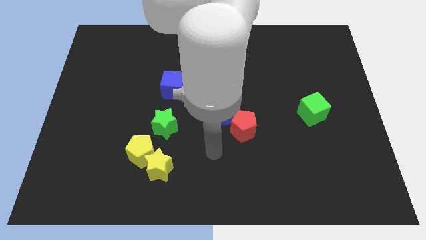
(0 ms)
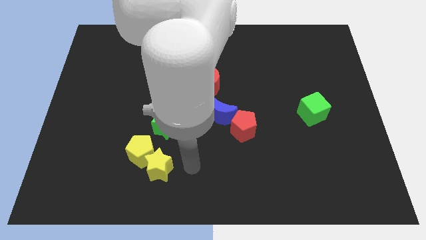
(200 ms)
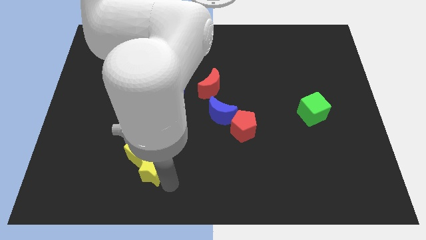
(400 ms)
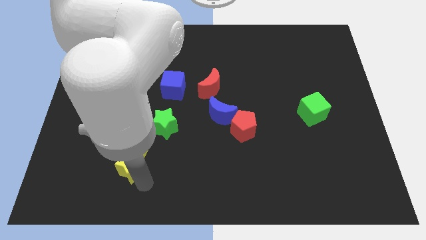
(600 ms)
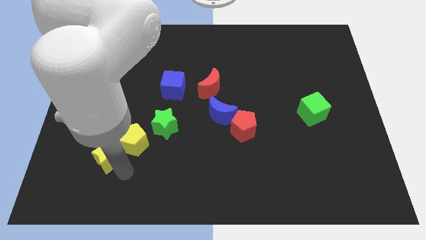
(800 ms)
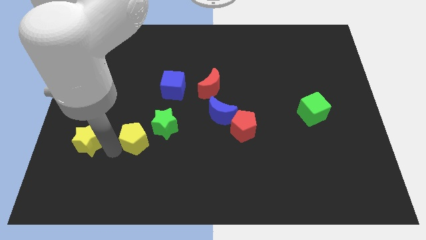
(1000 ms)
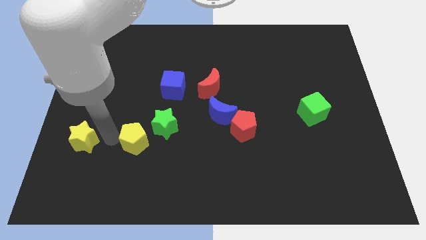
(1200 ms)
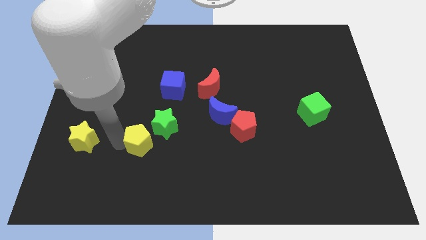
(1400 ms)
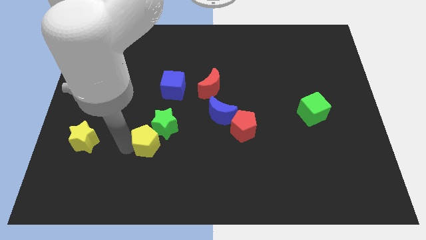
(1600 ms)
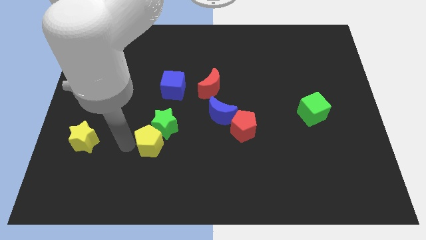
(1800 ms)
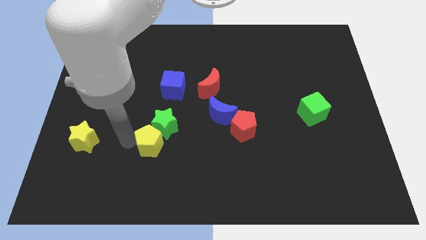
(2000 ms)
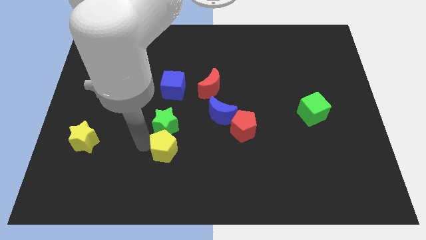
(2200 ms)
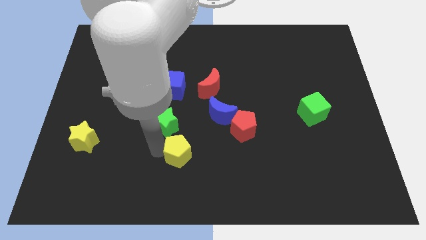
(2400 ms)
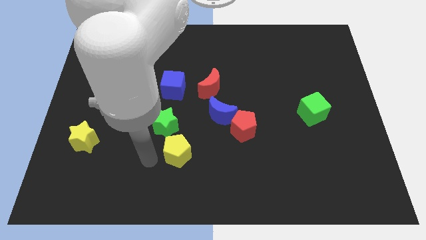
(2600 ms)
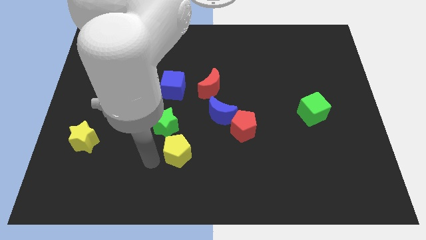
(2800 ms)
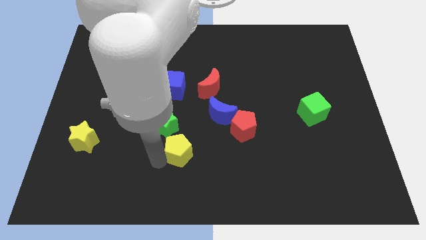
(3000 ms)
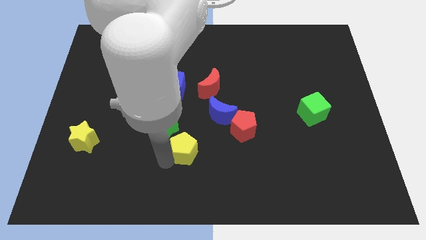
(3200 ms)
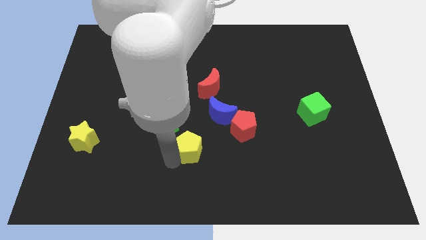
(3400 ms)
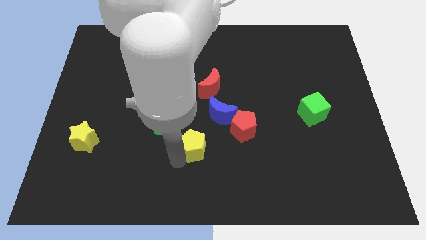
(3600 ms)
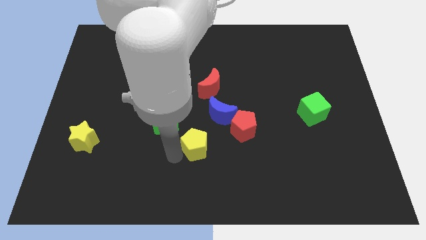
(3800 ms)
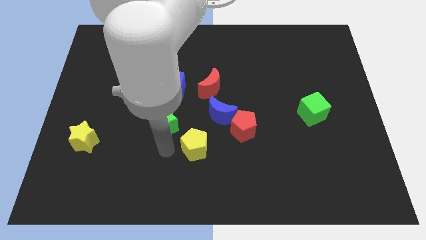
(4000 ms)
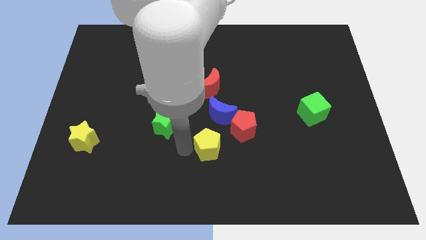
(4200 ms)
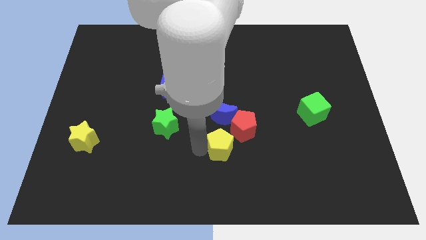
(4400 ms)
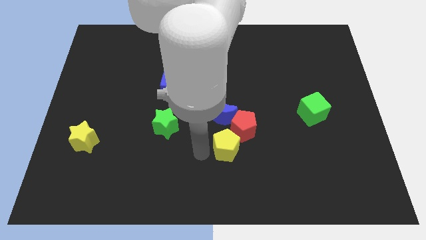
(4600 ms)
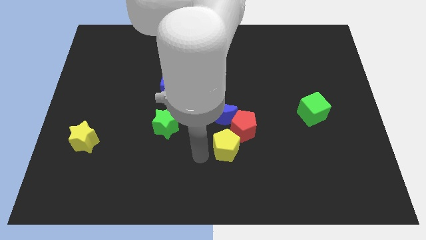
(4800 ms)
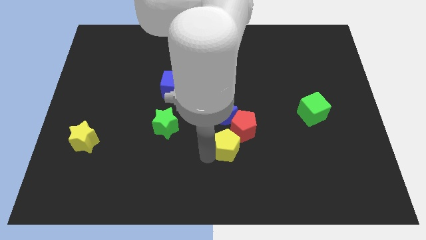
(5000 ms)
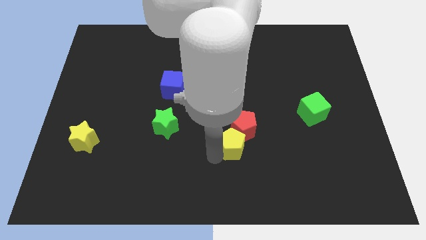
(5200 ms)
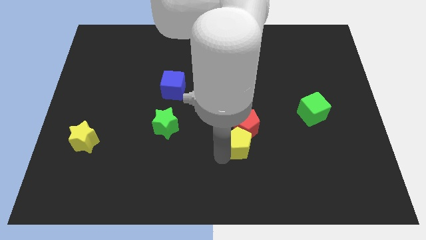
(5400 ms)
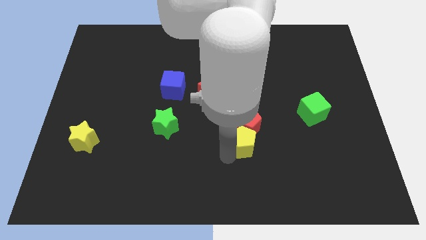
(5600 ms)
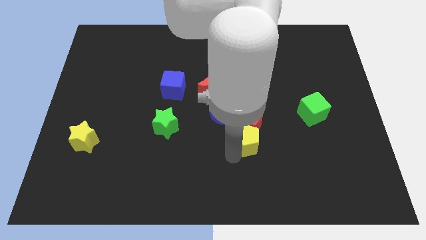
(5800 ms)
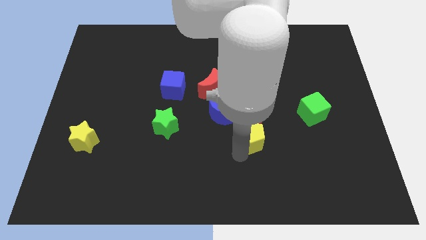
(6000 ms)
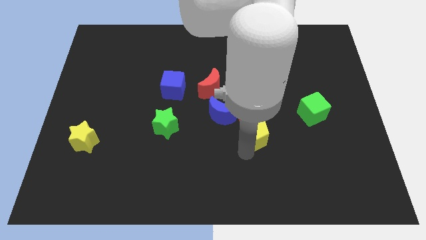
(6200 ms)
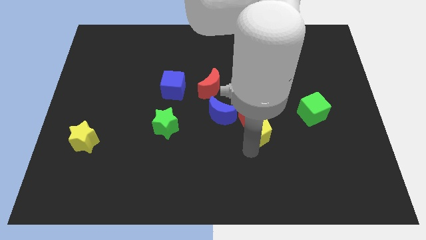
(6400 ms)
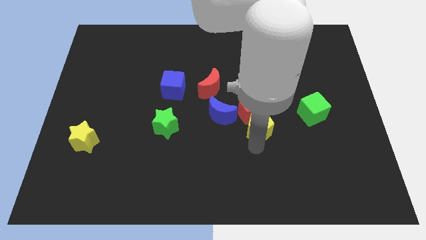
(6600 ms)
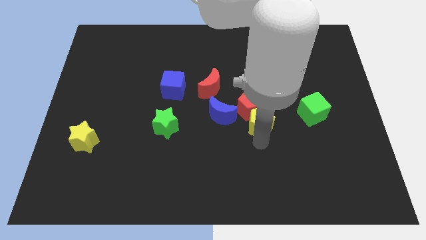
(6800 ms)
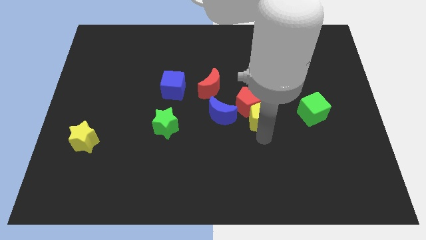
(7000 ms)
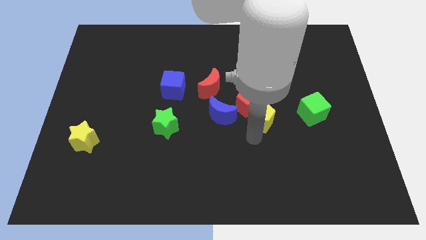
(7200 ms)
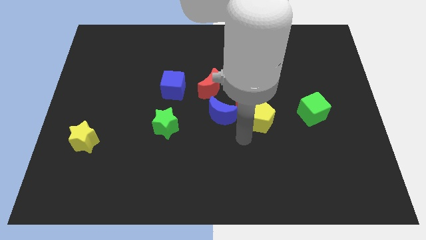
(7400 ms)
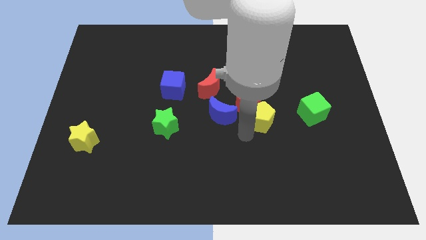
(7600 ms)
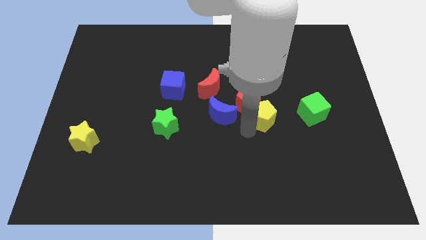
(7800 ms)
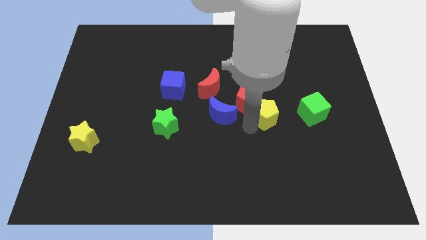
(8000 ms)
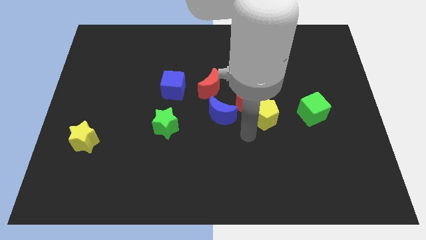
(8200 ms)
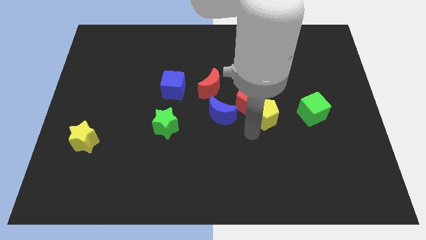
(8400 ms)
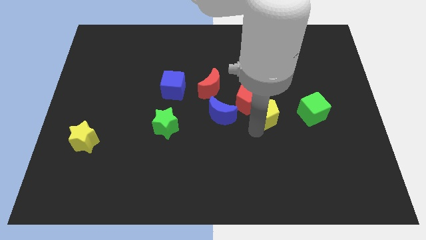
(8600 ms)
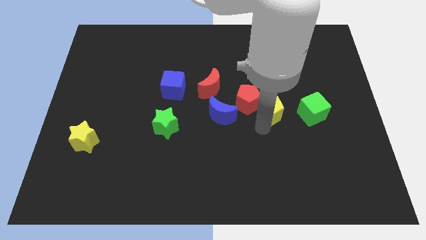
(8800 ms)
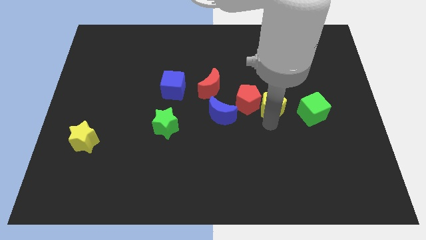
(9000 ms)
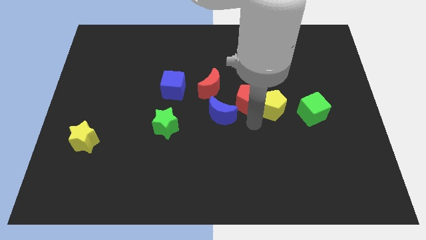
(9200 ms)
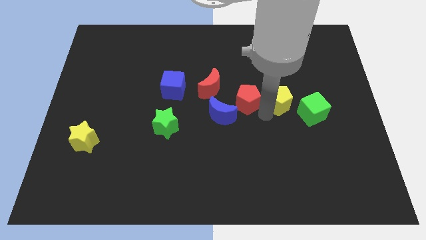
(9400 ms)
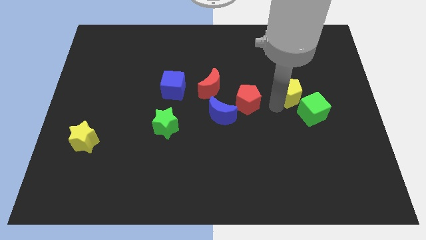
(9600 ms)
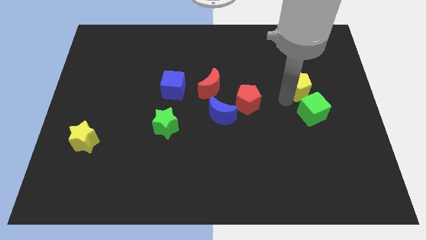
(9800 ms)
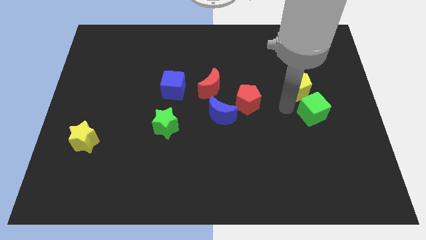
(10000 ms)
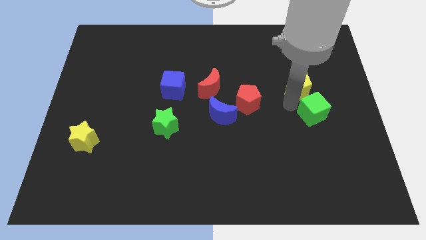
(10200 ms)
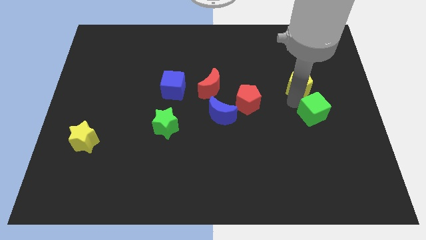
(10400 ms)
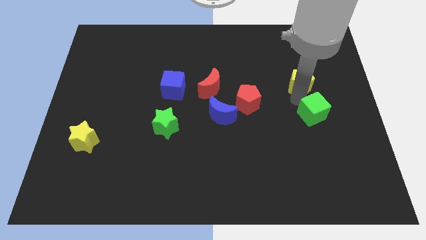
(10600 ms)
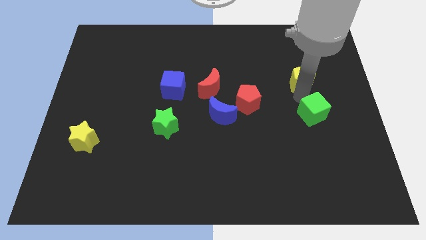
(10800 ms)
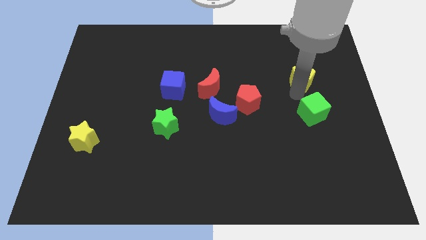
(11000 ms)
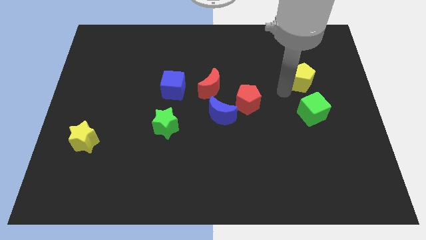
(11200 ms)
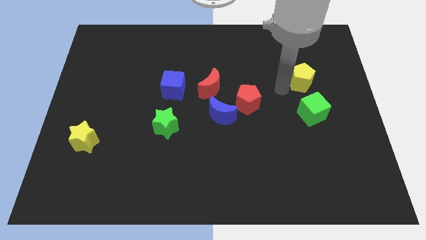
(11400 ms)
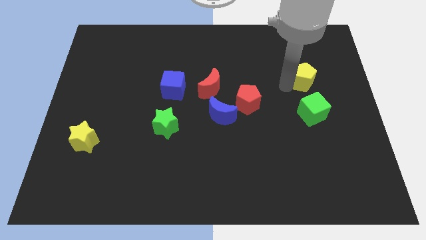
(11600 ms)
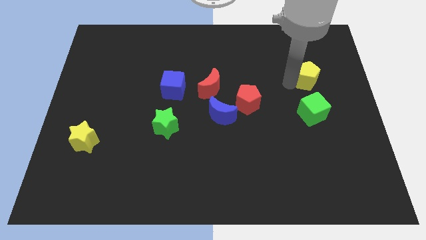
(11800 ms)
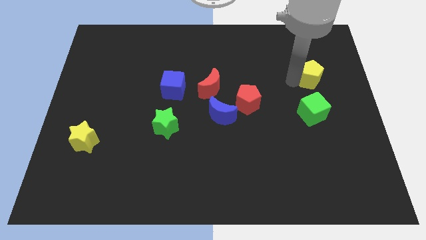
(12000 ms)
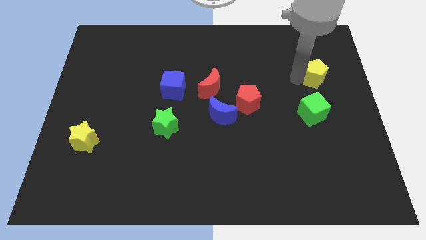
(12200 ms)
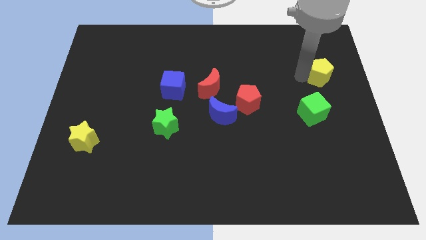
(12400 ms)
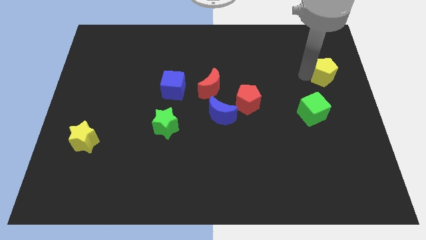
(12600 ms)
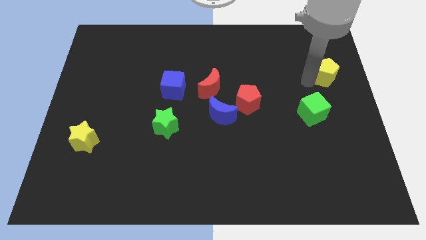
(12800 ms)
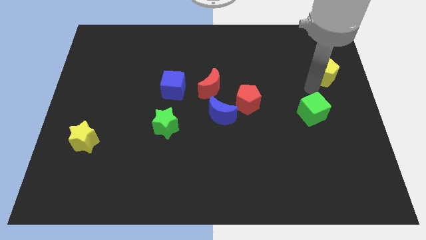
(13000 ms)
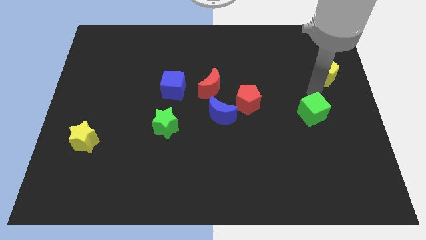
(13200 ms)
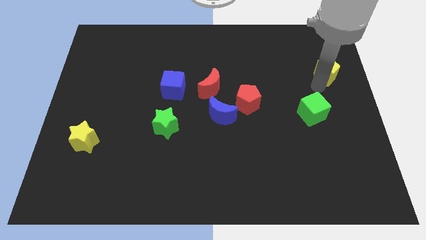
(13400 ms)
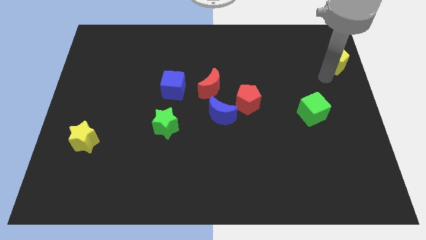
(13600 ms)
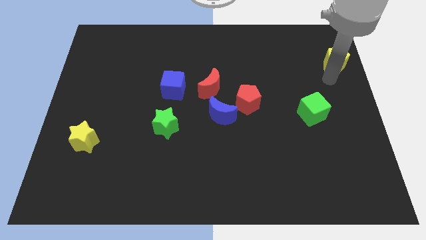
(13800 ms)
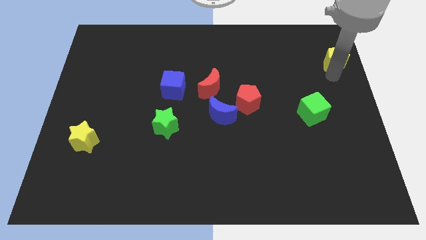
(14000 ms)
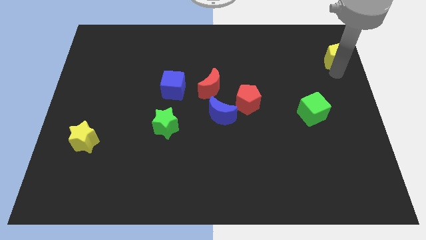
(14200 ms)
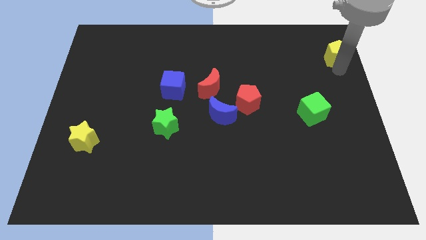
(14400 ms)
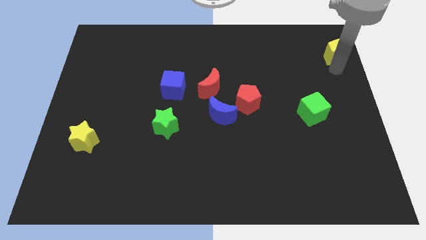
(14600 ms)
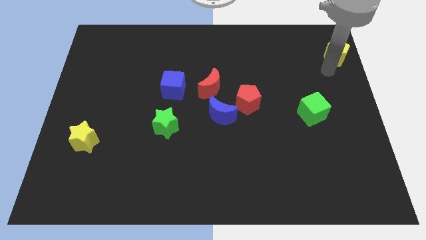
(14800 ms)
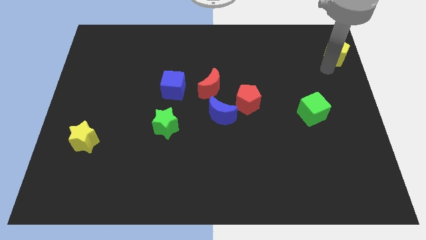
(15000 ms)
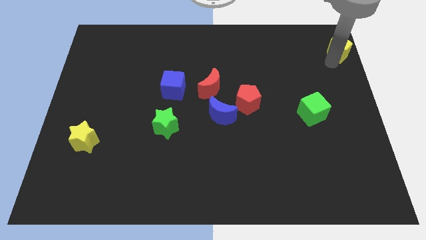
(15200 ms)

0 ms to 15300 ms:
put the yellow pentagon to the upper right corner
